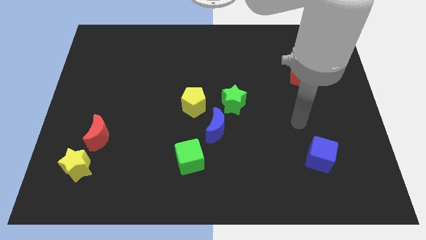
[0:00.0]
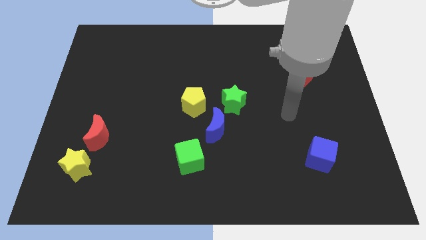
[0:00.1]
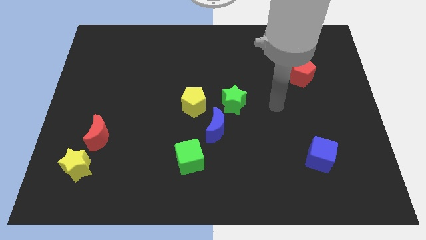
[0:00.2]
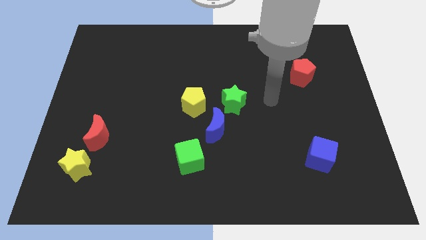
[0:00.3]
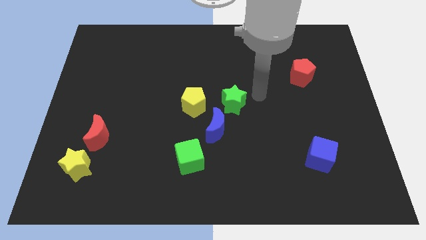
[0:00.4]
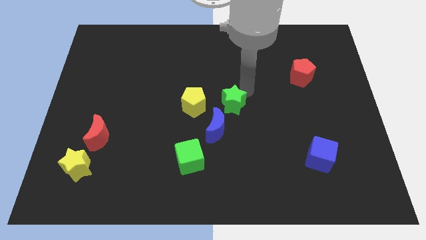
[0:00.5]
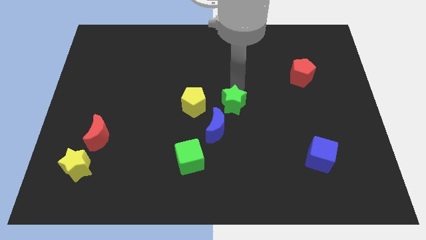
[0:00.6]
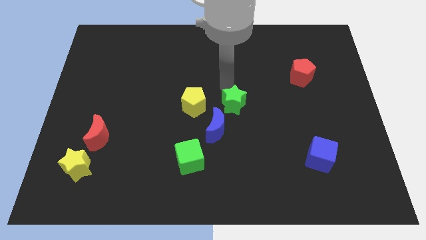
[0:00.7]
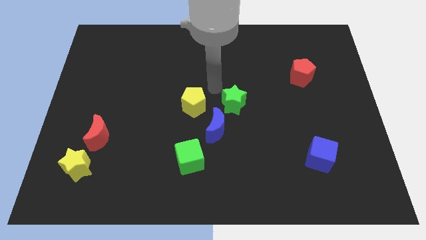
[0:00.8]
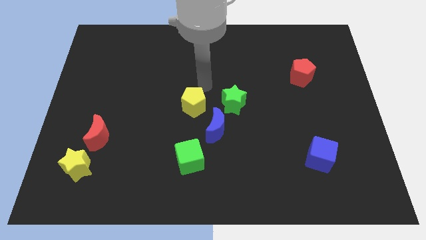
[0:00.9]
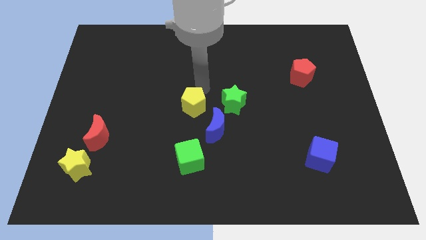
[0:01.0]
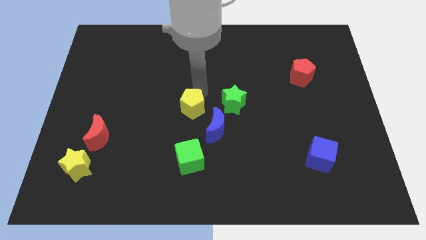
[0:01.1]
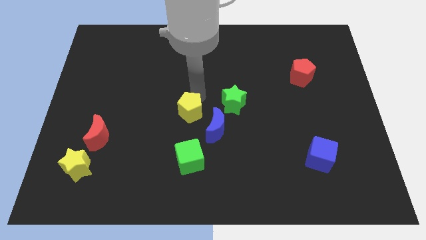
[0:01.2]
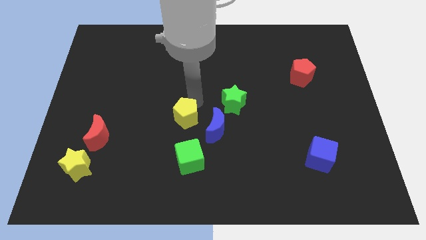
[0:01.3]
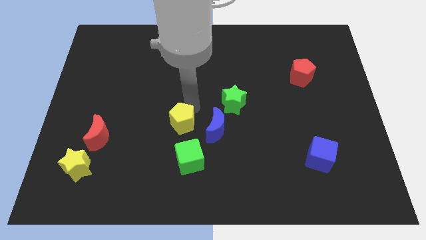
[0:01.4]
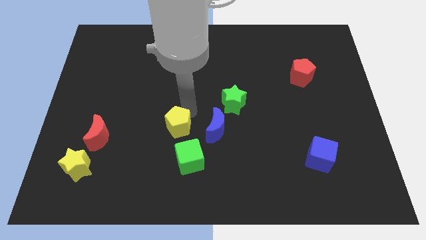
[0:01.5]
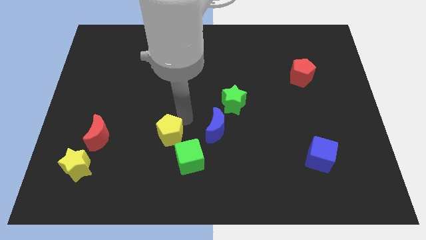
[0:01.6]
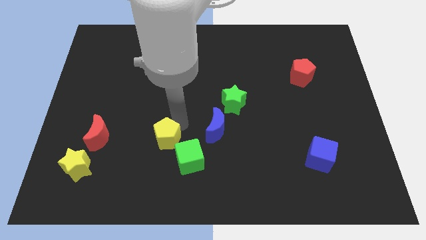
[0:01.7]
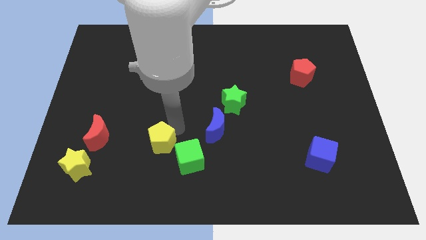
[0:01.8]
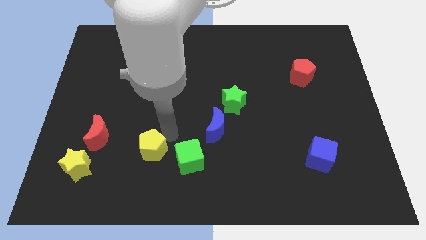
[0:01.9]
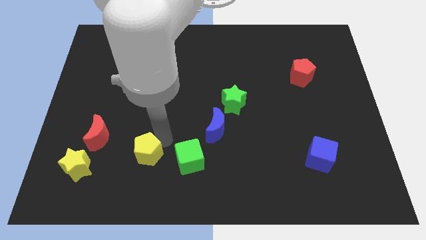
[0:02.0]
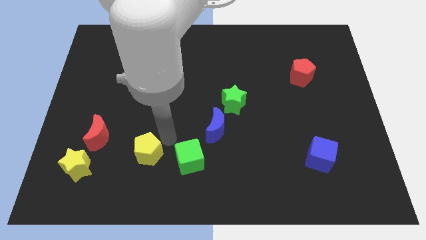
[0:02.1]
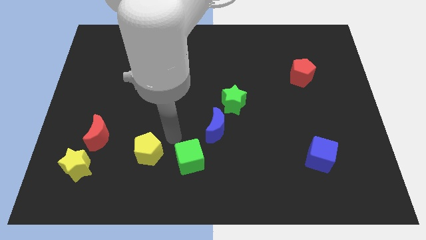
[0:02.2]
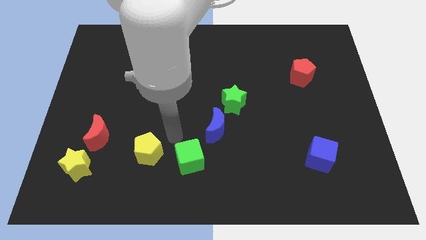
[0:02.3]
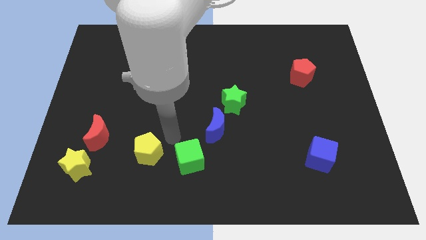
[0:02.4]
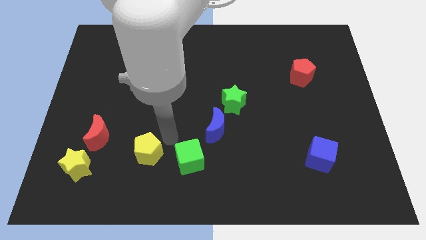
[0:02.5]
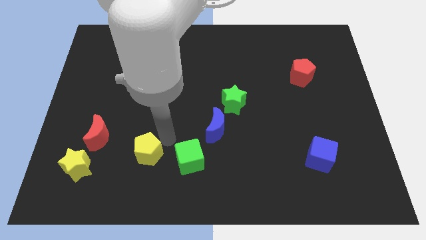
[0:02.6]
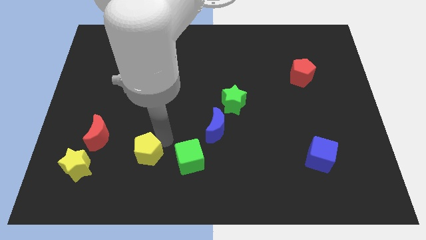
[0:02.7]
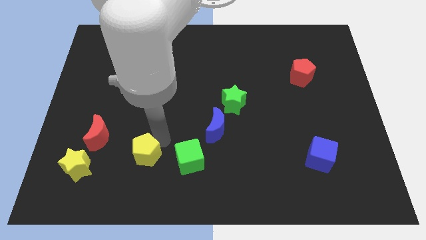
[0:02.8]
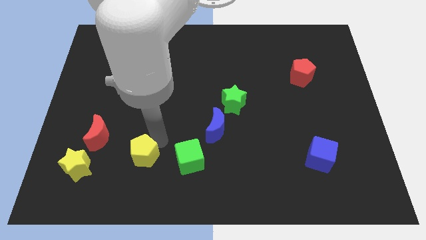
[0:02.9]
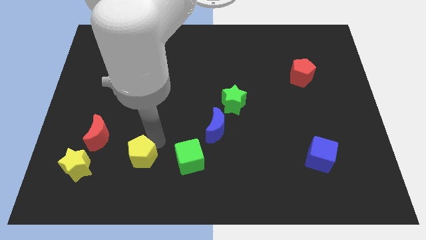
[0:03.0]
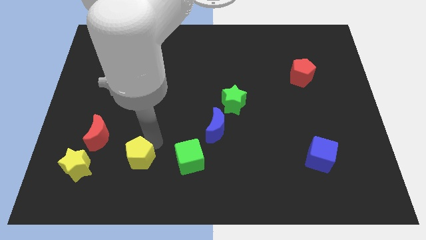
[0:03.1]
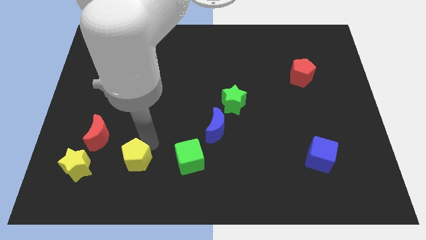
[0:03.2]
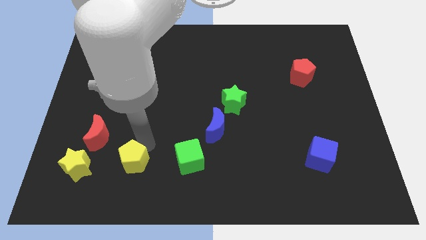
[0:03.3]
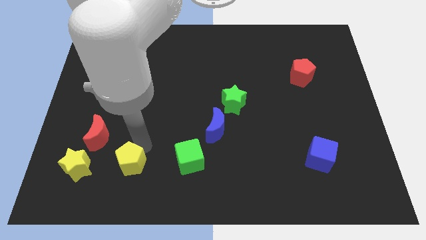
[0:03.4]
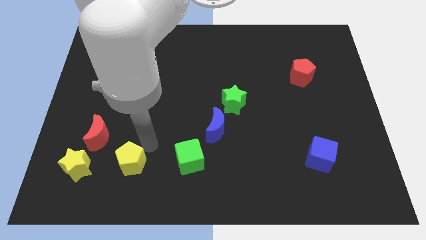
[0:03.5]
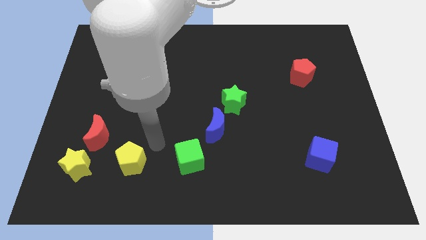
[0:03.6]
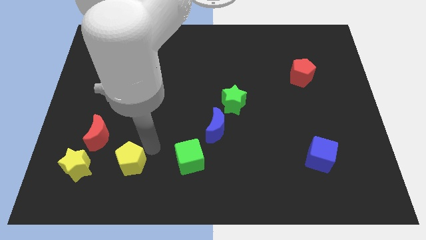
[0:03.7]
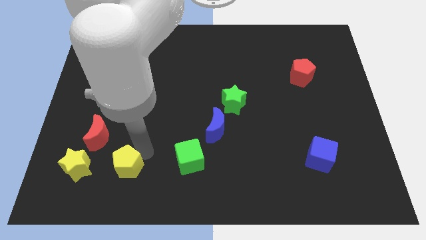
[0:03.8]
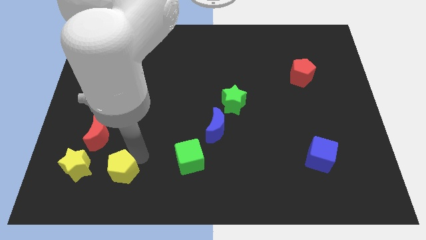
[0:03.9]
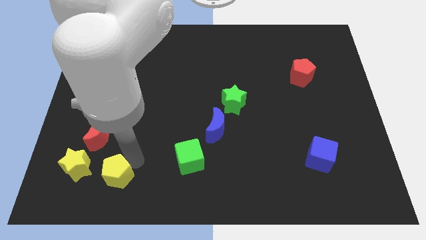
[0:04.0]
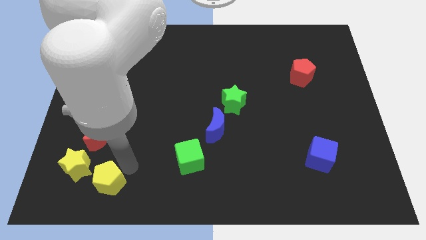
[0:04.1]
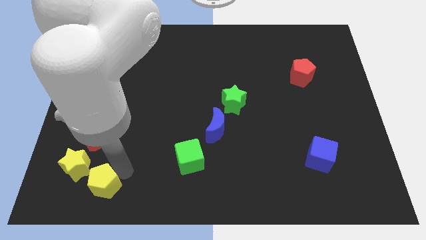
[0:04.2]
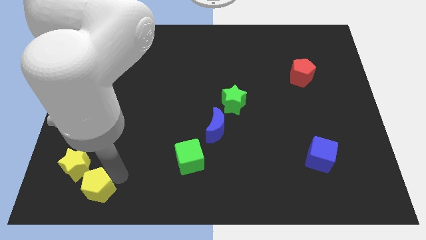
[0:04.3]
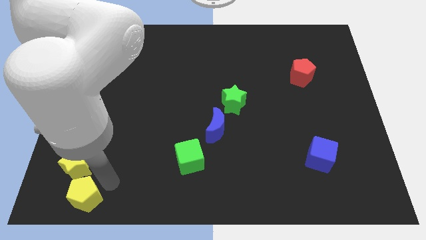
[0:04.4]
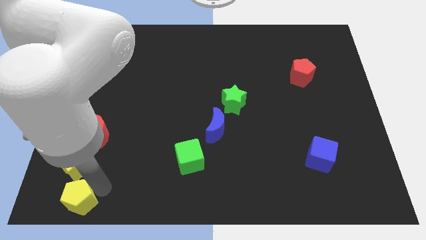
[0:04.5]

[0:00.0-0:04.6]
push the yellow pentagon to the bottom left corner

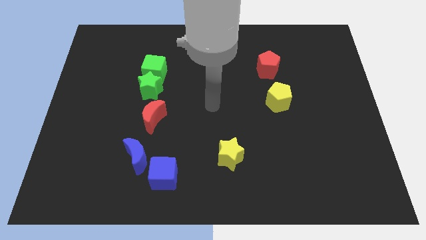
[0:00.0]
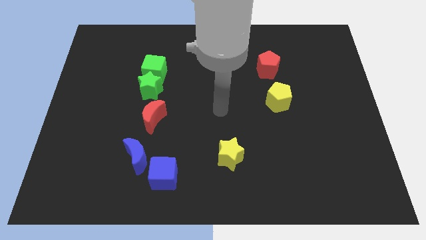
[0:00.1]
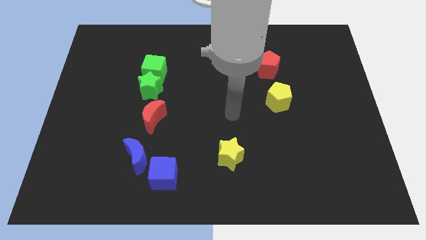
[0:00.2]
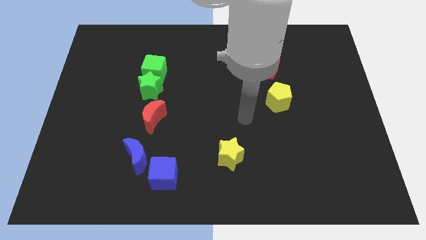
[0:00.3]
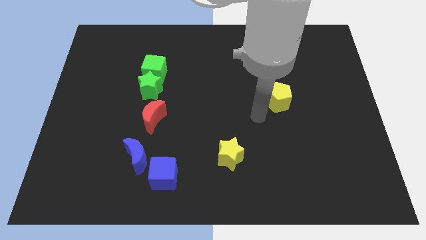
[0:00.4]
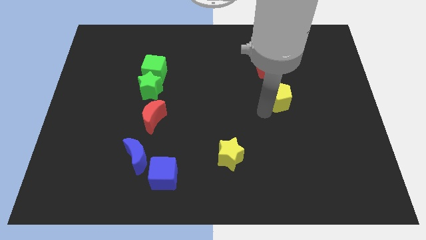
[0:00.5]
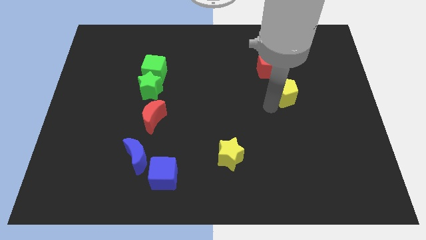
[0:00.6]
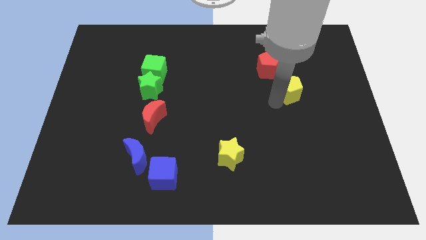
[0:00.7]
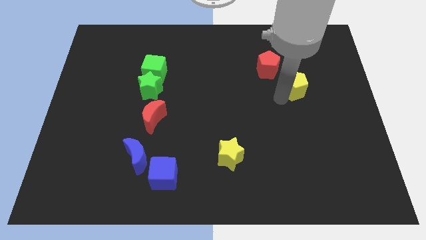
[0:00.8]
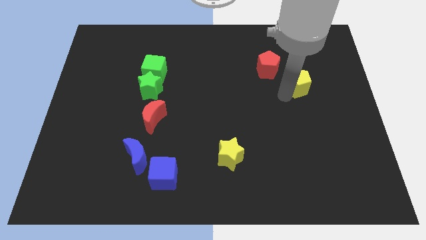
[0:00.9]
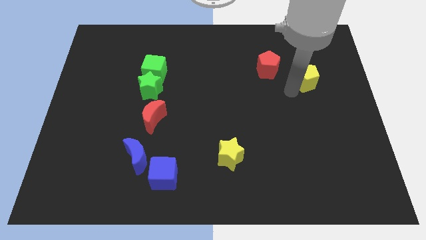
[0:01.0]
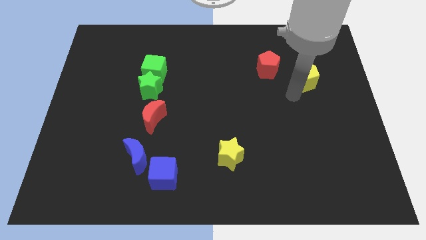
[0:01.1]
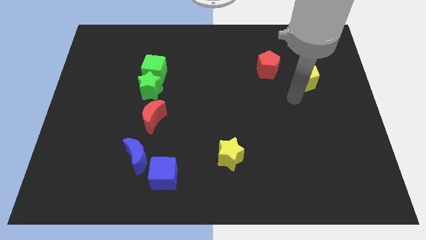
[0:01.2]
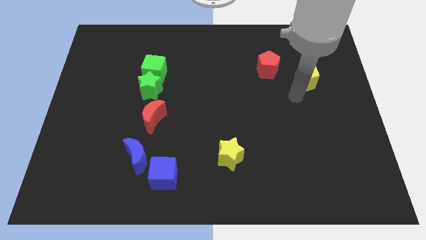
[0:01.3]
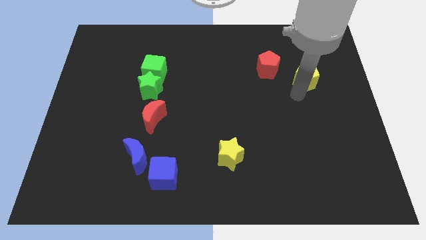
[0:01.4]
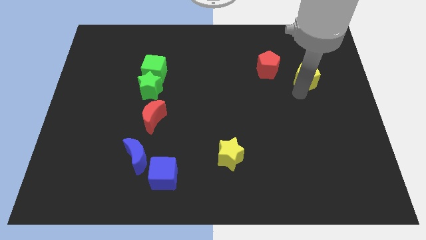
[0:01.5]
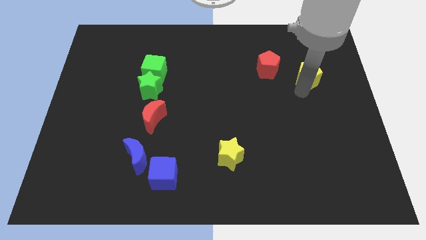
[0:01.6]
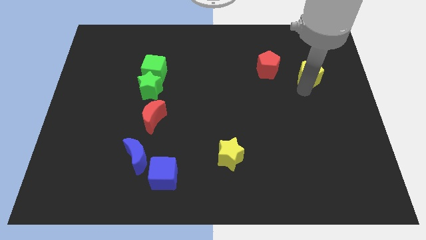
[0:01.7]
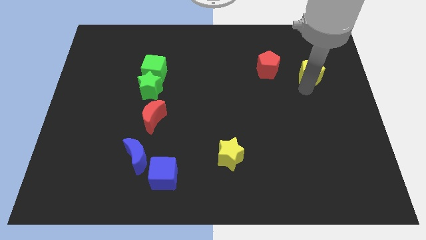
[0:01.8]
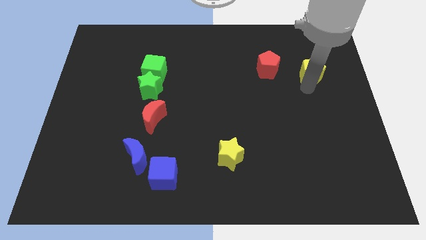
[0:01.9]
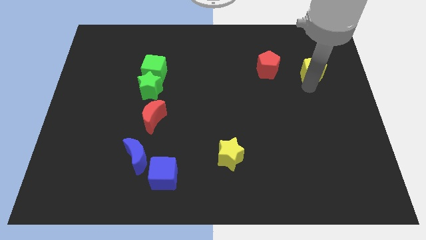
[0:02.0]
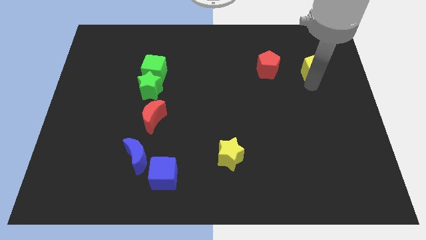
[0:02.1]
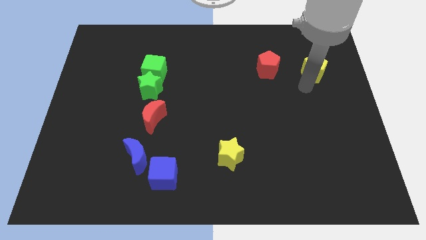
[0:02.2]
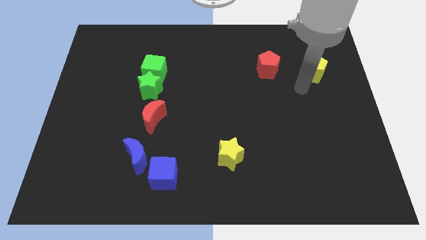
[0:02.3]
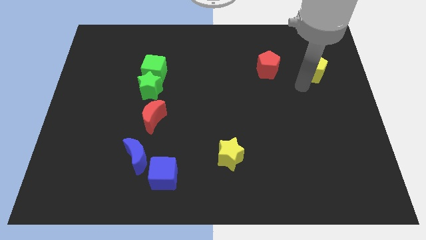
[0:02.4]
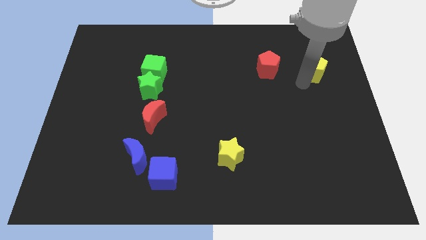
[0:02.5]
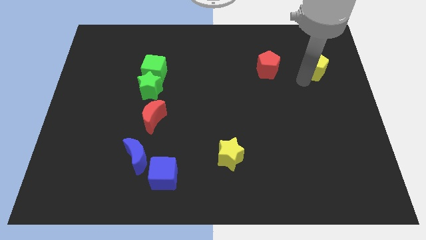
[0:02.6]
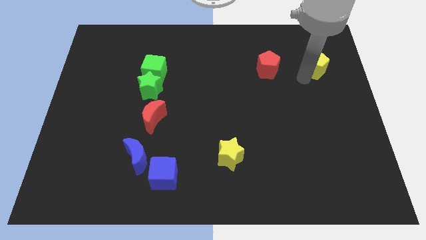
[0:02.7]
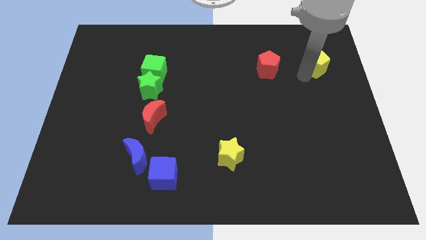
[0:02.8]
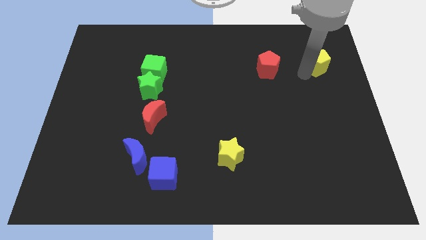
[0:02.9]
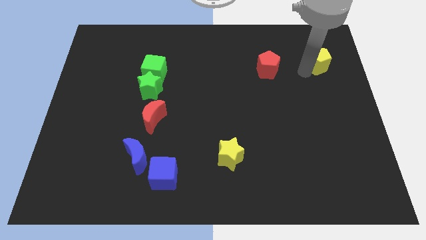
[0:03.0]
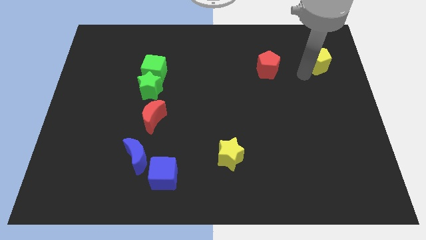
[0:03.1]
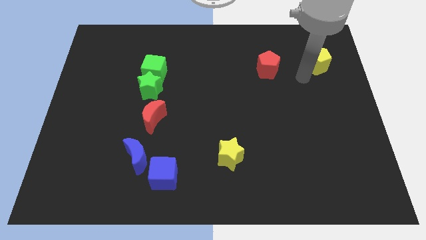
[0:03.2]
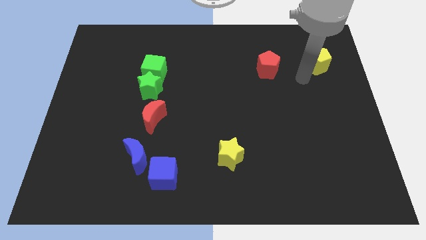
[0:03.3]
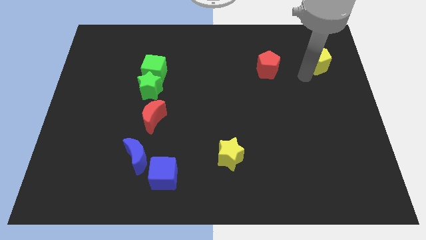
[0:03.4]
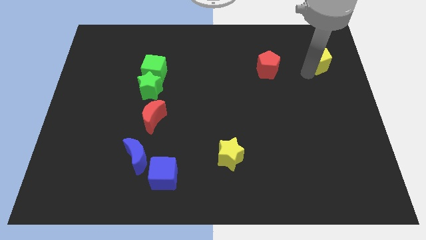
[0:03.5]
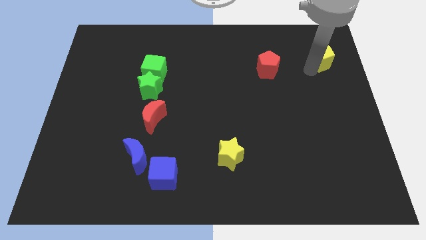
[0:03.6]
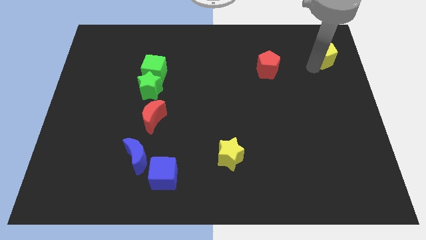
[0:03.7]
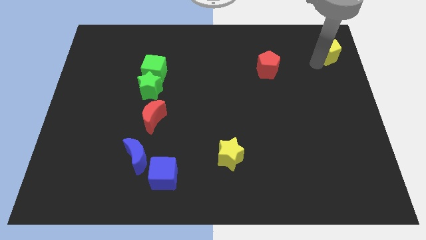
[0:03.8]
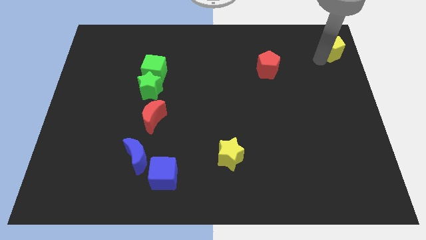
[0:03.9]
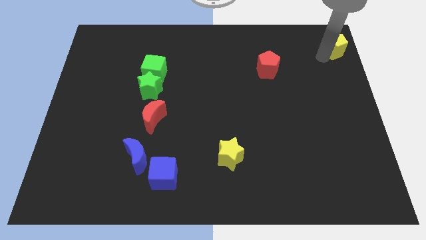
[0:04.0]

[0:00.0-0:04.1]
slide the yellow pentagon to the top right corner
